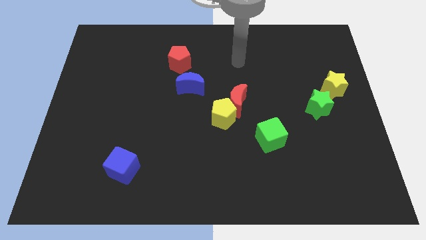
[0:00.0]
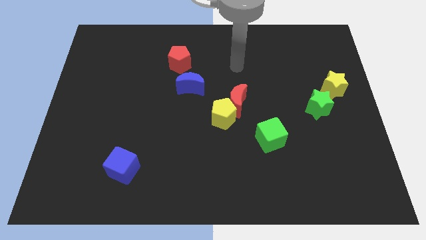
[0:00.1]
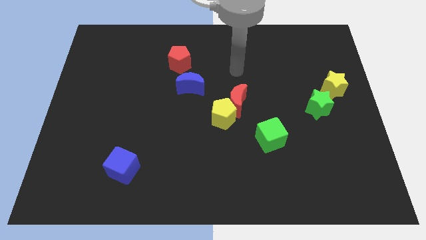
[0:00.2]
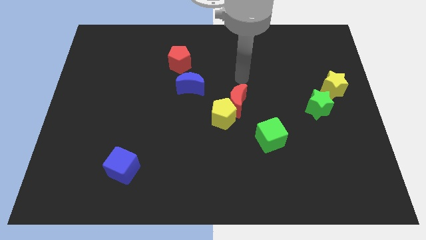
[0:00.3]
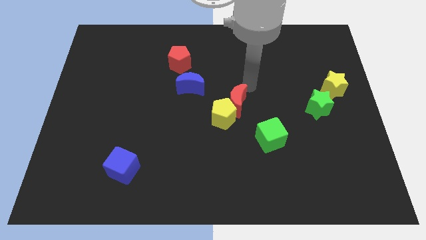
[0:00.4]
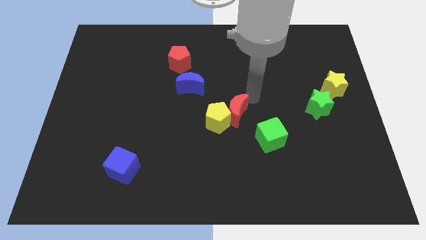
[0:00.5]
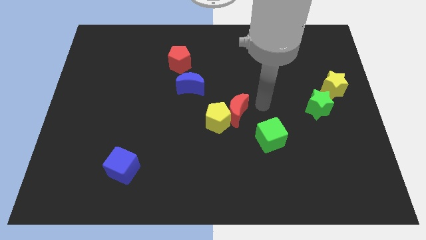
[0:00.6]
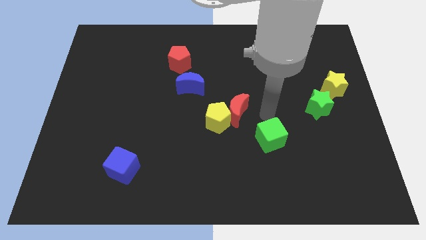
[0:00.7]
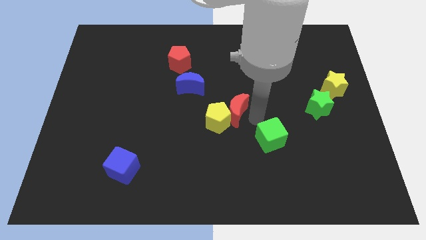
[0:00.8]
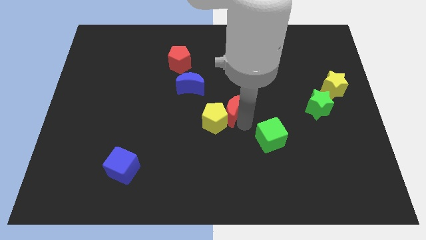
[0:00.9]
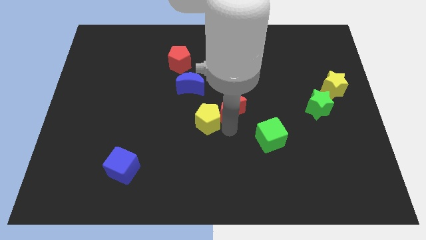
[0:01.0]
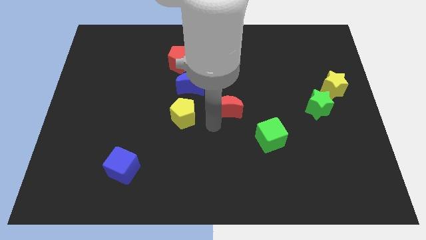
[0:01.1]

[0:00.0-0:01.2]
move the red moon away from the yellow pentagon

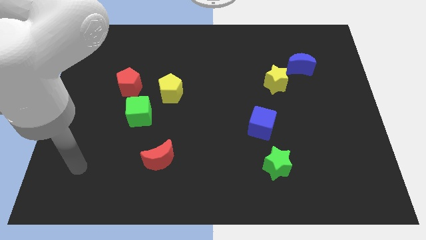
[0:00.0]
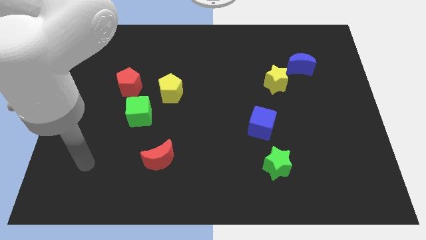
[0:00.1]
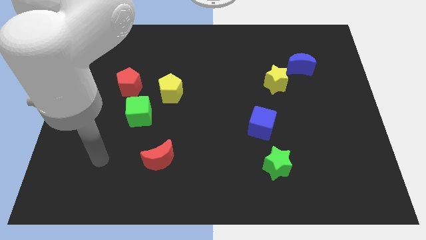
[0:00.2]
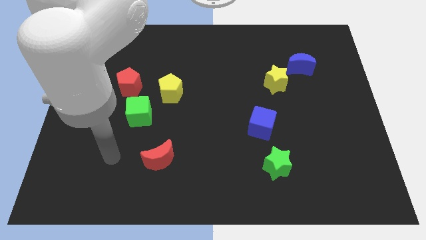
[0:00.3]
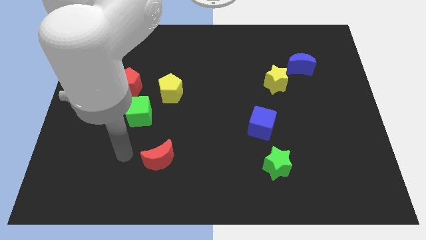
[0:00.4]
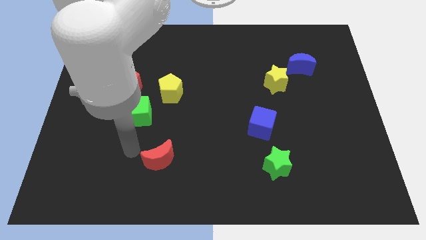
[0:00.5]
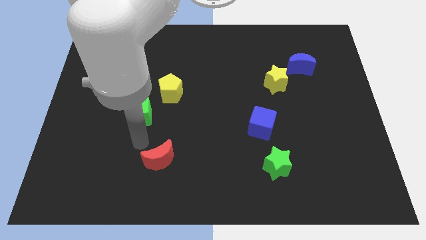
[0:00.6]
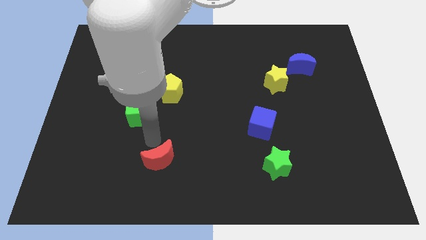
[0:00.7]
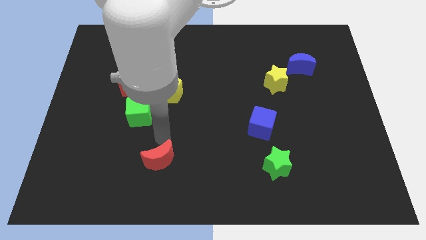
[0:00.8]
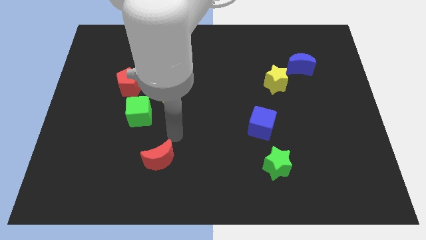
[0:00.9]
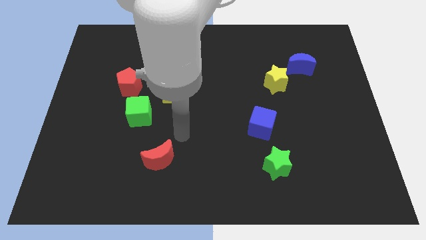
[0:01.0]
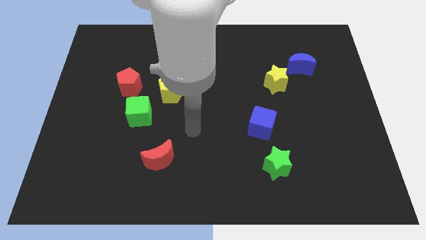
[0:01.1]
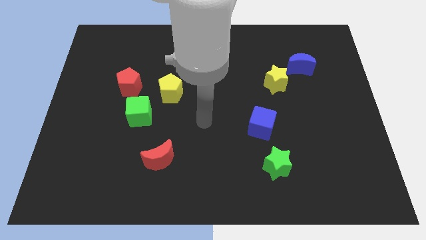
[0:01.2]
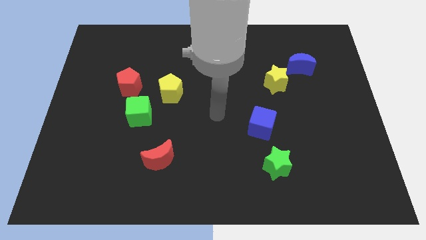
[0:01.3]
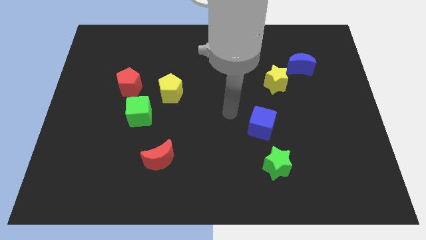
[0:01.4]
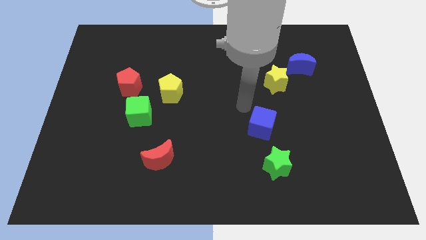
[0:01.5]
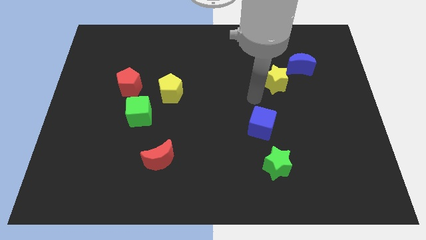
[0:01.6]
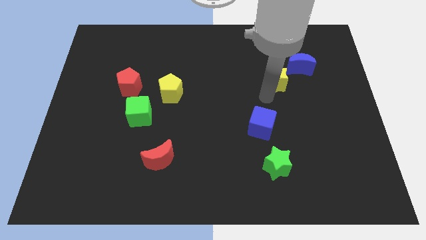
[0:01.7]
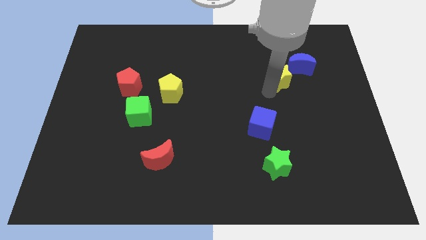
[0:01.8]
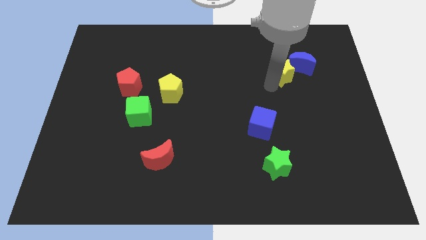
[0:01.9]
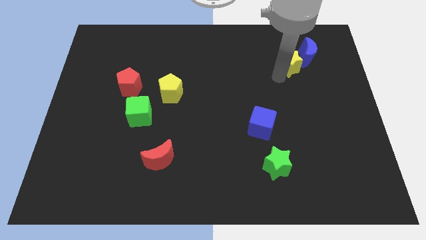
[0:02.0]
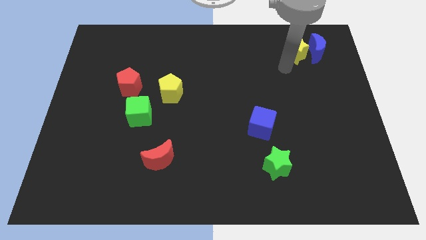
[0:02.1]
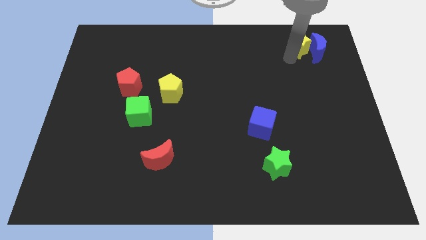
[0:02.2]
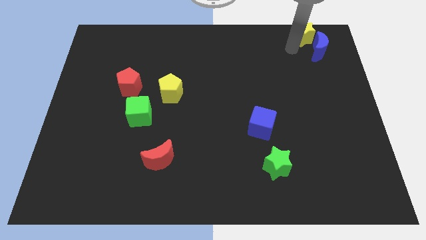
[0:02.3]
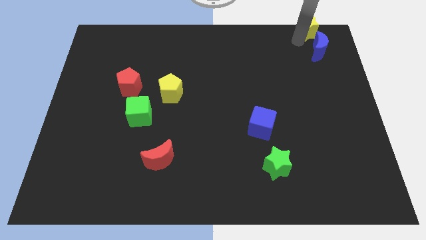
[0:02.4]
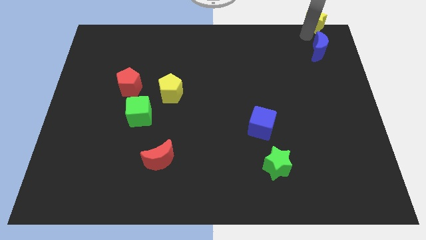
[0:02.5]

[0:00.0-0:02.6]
move the blue moon away from the yellow star

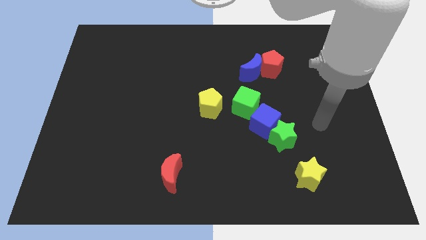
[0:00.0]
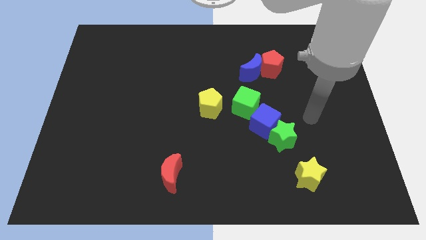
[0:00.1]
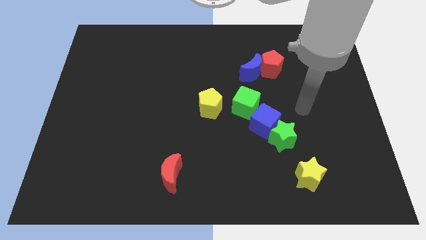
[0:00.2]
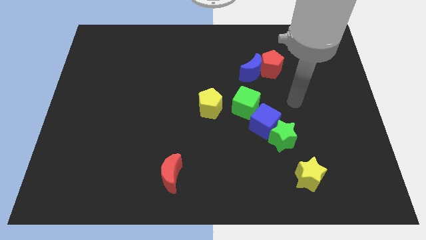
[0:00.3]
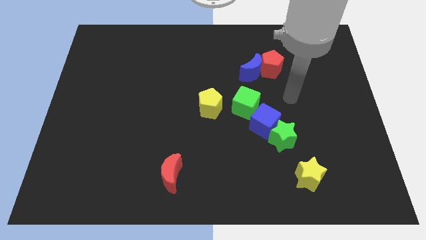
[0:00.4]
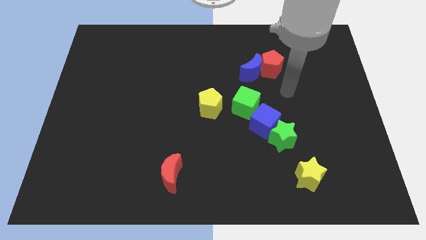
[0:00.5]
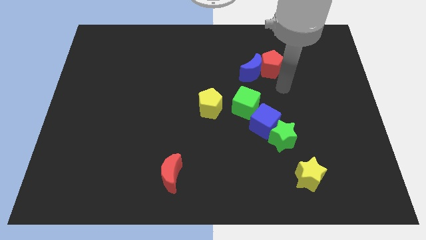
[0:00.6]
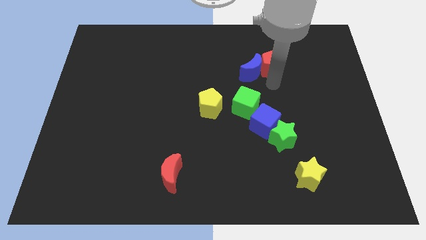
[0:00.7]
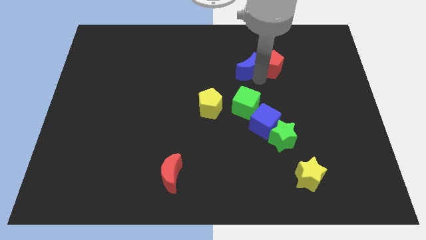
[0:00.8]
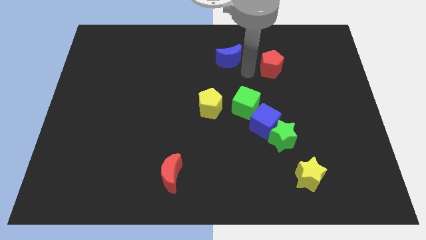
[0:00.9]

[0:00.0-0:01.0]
pull the red pentagon apart from the blue moon

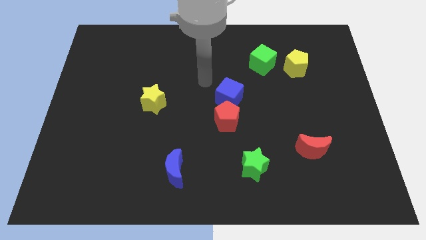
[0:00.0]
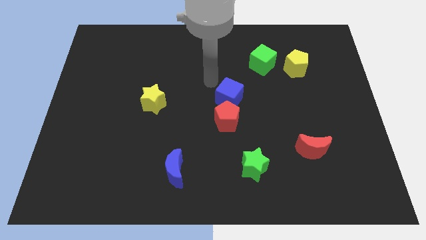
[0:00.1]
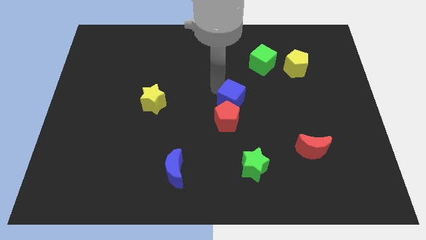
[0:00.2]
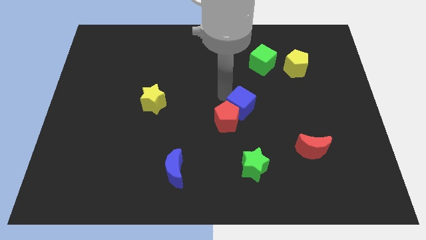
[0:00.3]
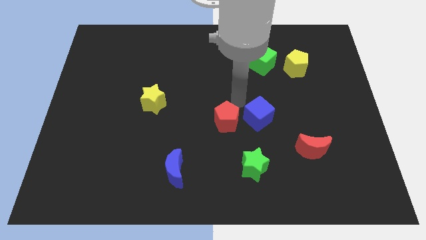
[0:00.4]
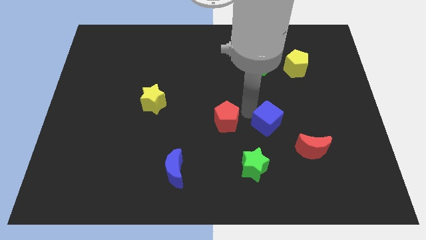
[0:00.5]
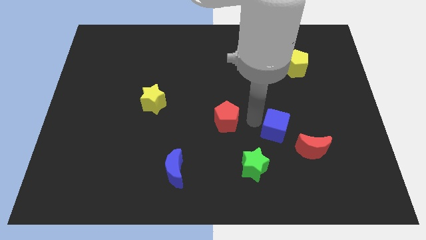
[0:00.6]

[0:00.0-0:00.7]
separate the red pentagon from the blue cube

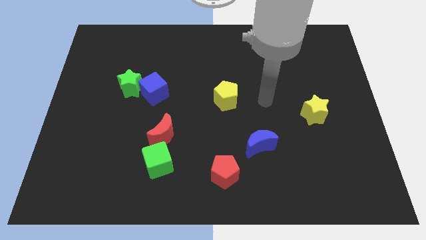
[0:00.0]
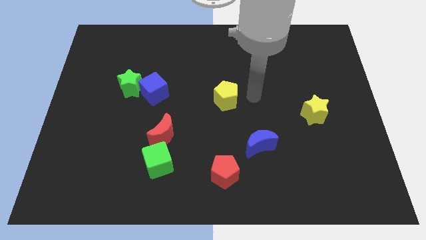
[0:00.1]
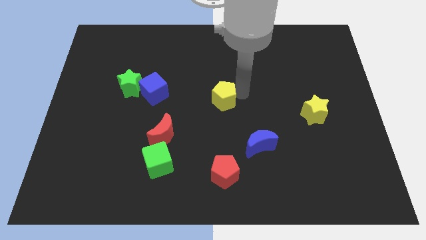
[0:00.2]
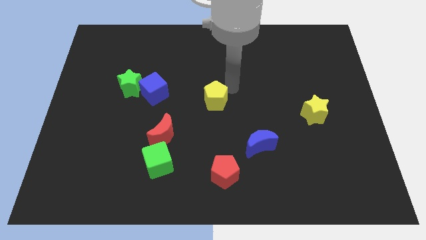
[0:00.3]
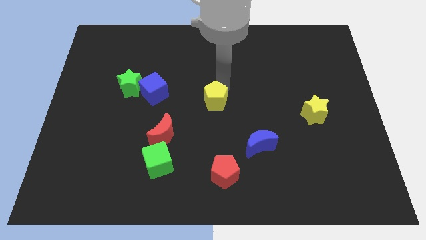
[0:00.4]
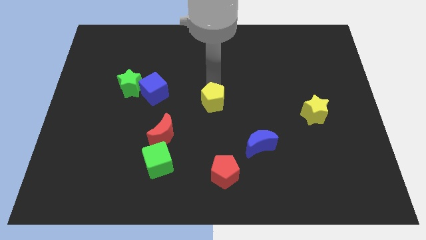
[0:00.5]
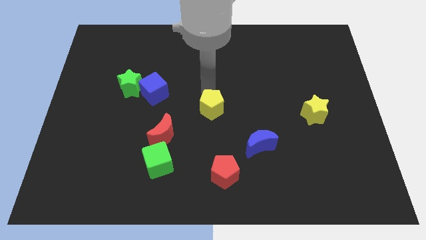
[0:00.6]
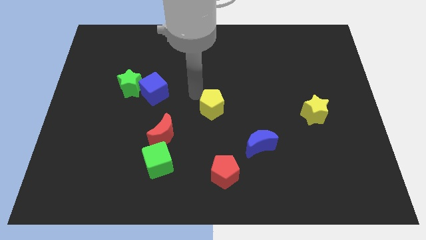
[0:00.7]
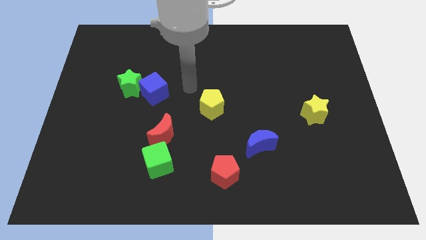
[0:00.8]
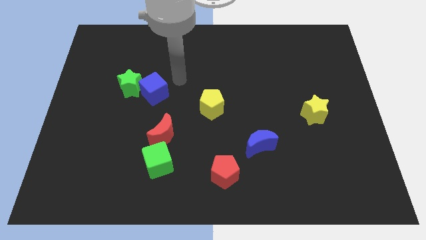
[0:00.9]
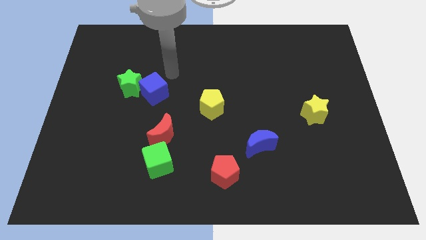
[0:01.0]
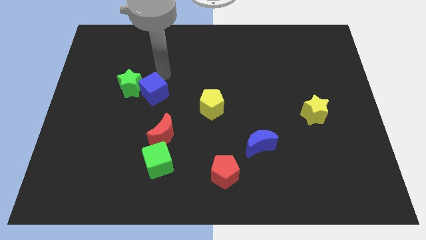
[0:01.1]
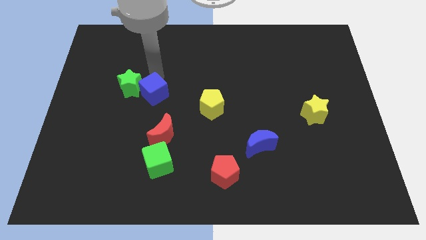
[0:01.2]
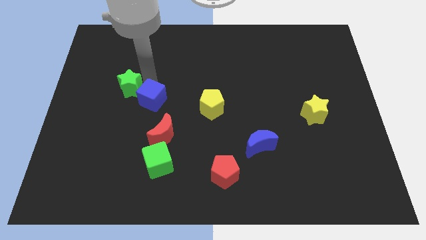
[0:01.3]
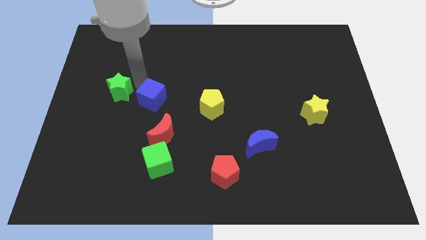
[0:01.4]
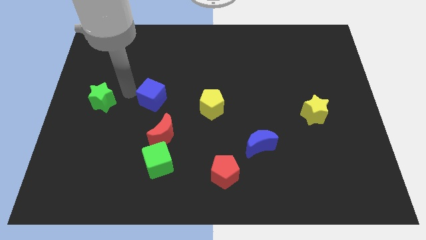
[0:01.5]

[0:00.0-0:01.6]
separate the blue cube from the green star

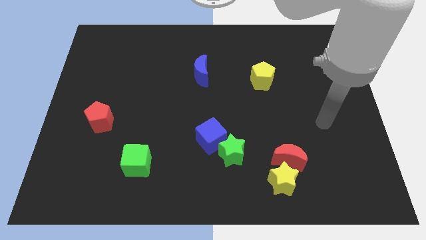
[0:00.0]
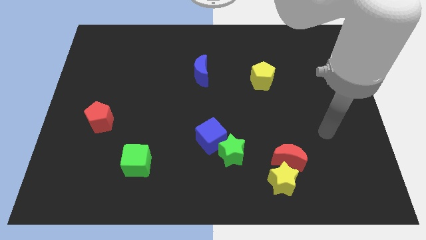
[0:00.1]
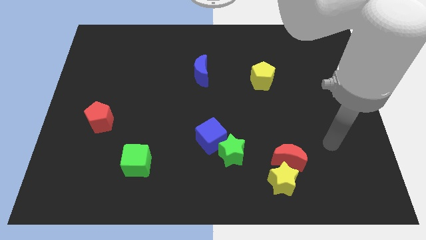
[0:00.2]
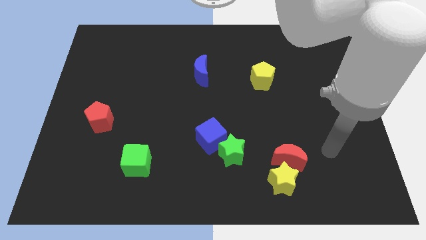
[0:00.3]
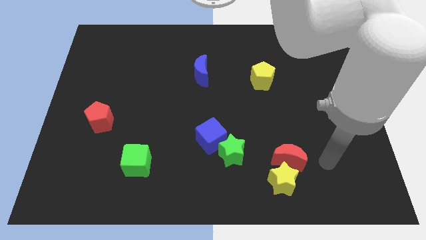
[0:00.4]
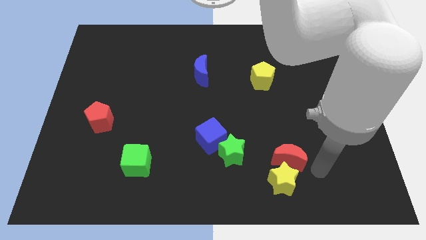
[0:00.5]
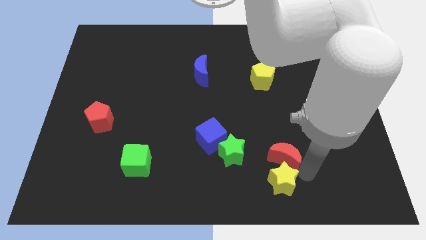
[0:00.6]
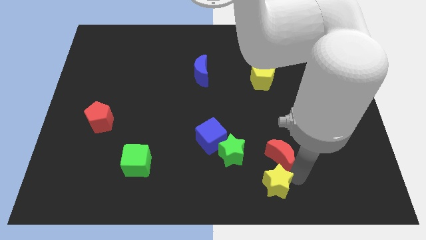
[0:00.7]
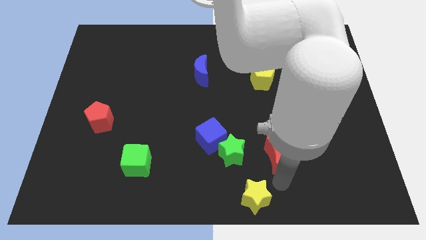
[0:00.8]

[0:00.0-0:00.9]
pull the red moon apart from the yellow star

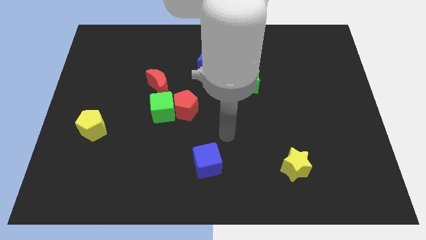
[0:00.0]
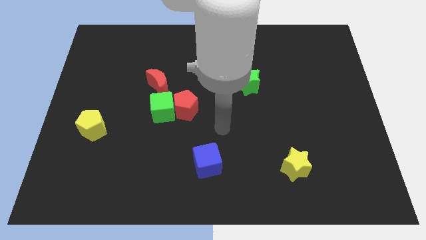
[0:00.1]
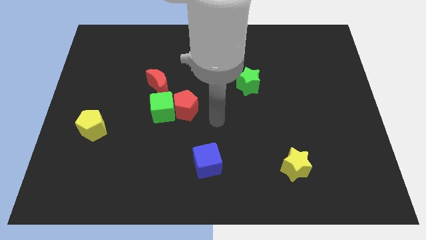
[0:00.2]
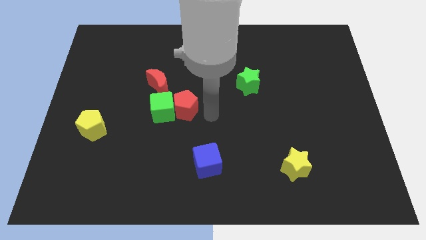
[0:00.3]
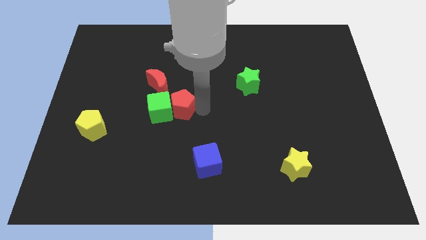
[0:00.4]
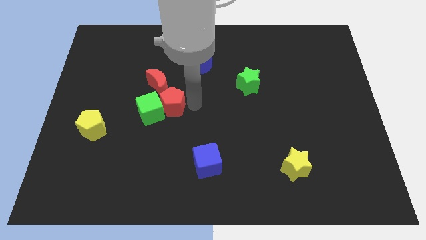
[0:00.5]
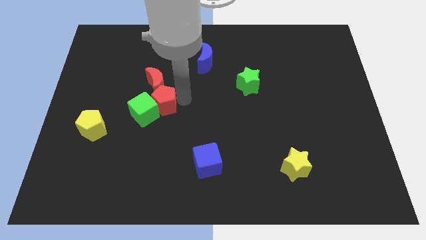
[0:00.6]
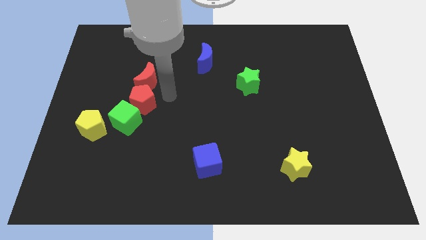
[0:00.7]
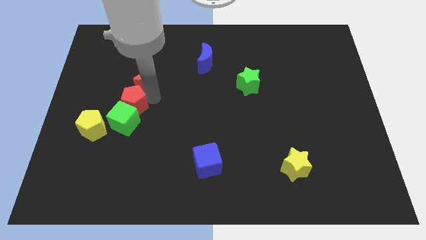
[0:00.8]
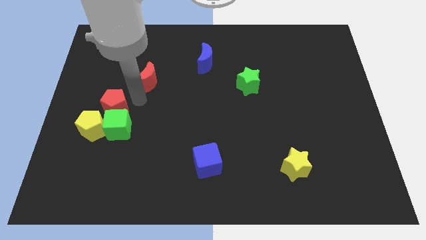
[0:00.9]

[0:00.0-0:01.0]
separate the green cube from the red pentagon and red moon

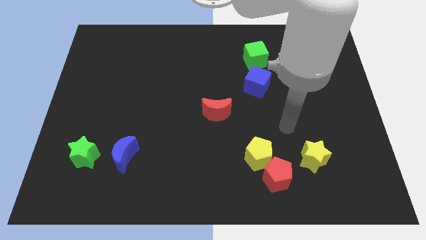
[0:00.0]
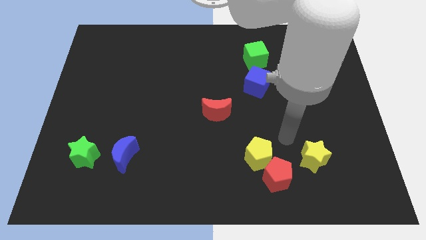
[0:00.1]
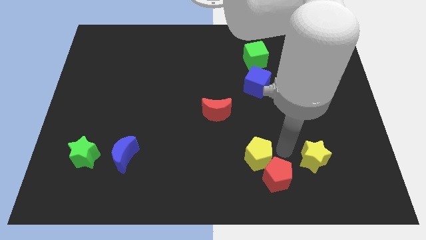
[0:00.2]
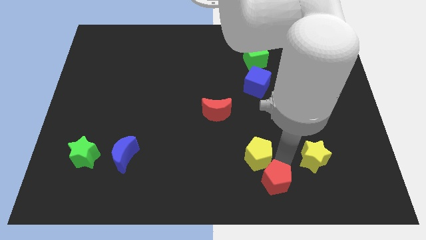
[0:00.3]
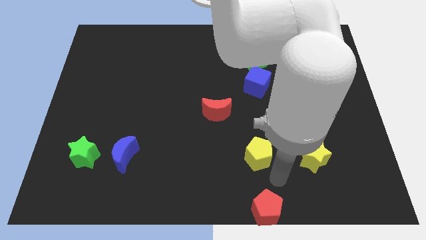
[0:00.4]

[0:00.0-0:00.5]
move the yellow pentagon away from the red pentagon
